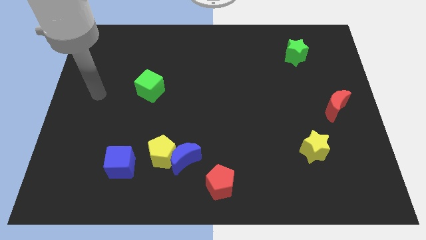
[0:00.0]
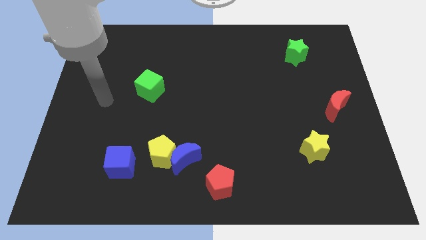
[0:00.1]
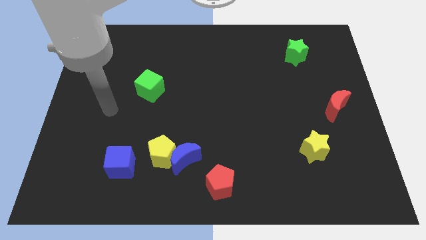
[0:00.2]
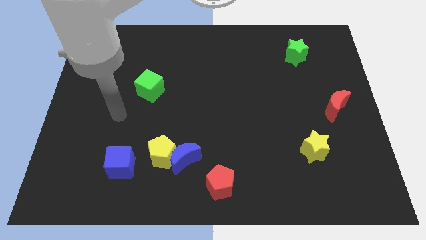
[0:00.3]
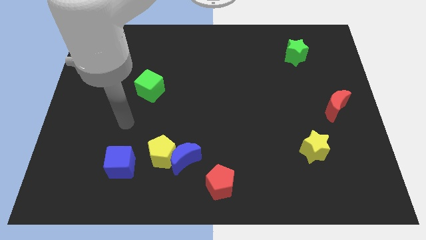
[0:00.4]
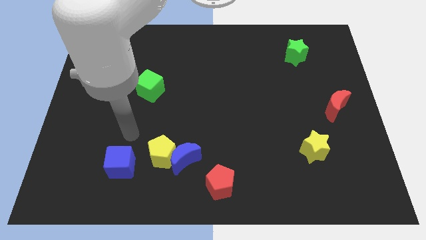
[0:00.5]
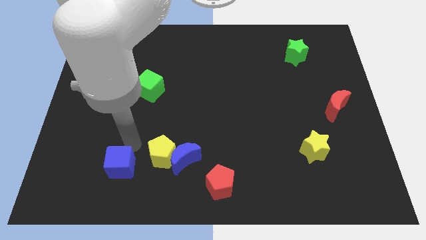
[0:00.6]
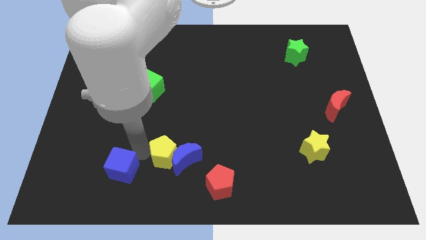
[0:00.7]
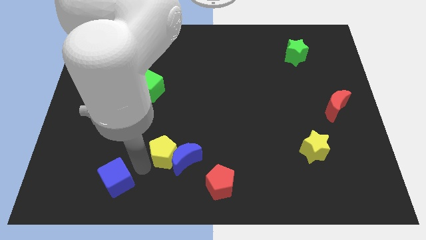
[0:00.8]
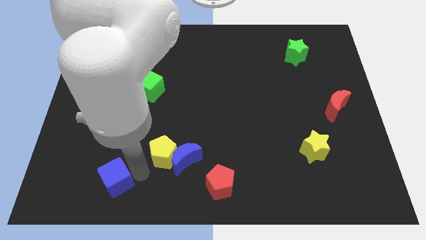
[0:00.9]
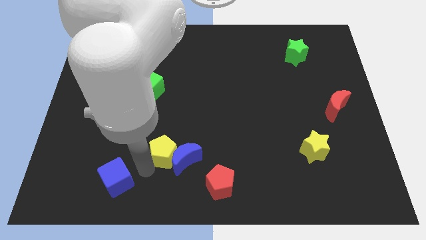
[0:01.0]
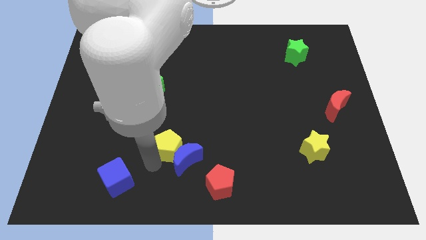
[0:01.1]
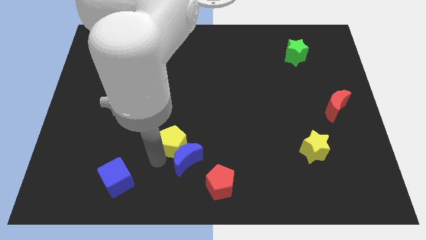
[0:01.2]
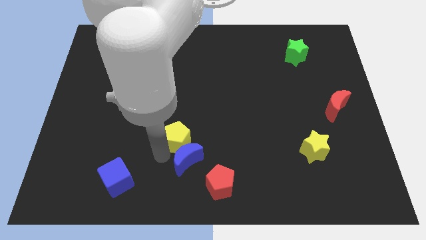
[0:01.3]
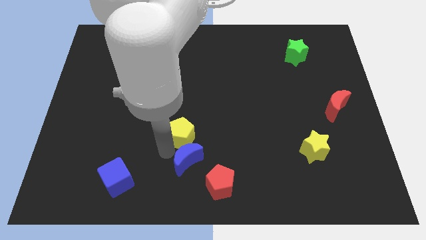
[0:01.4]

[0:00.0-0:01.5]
pull the yellow pentagon apart from the blue moon and blue cube

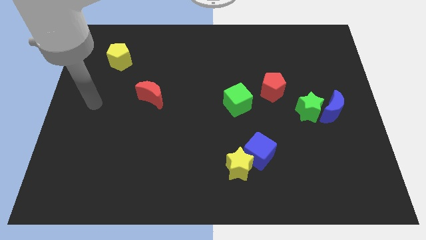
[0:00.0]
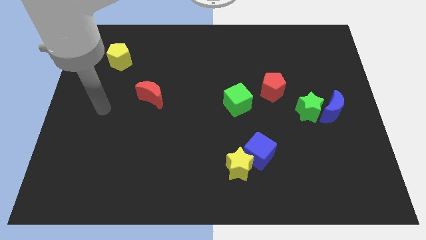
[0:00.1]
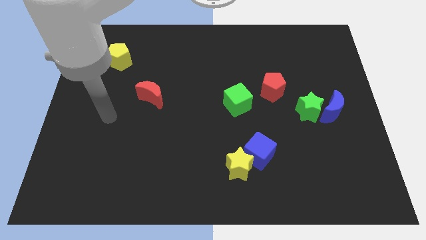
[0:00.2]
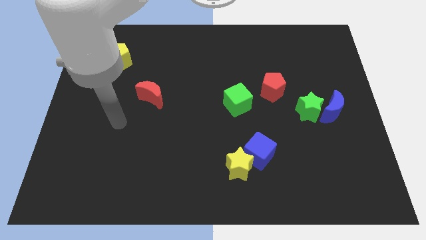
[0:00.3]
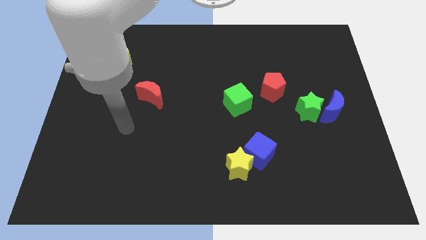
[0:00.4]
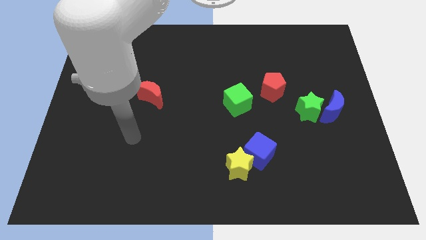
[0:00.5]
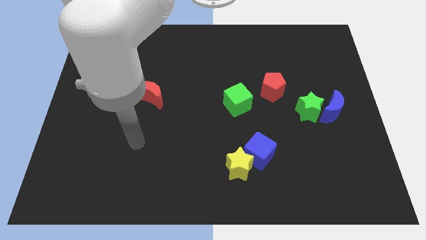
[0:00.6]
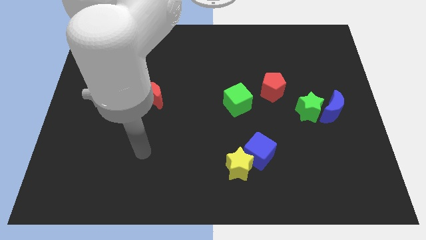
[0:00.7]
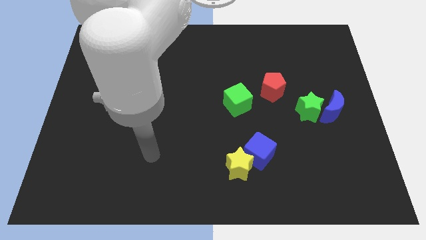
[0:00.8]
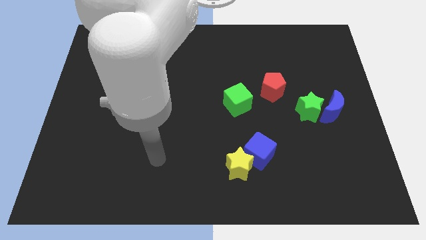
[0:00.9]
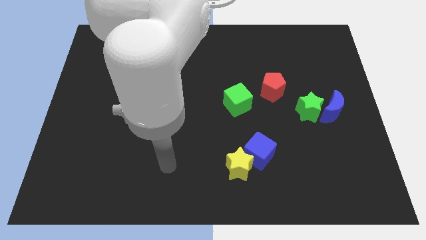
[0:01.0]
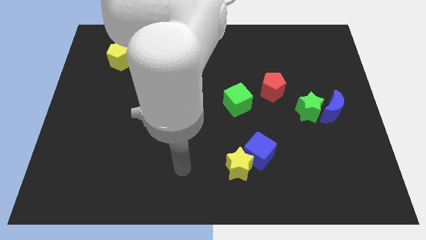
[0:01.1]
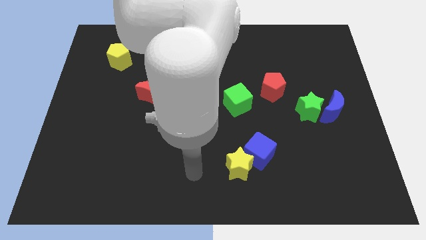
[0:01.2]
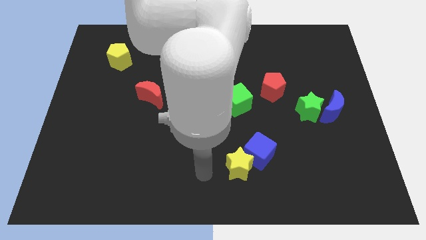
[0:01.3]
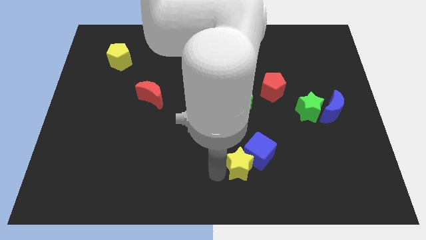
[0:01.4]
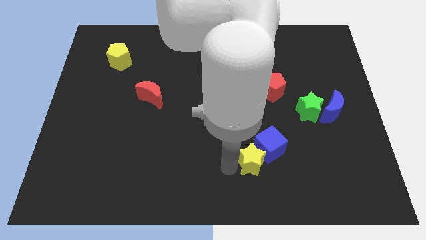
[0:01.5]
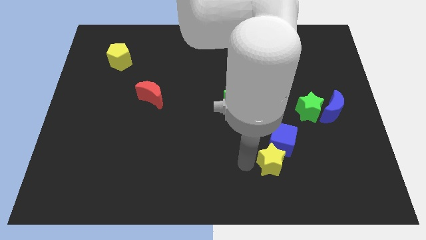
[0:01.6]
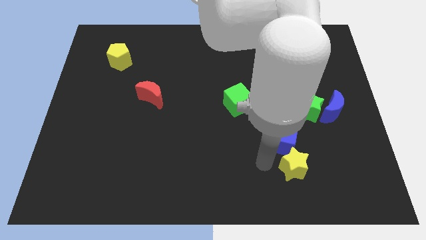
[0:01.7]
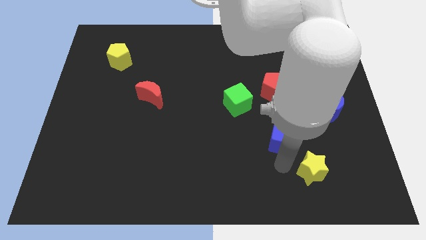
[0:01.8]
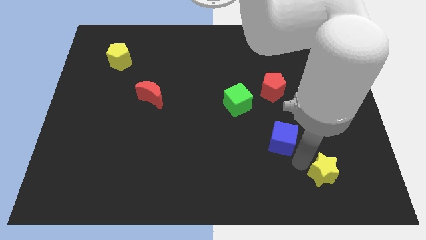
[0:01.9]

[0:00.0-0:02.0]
move the blue cube away from the yellow star

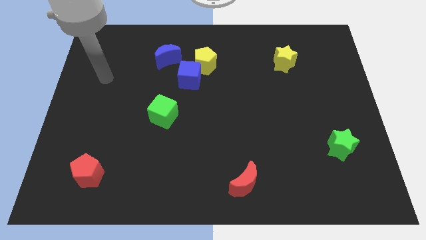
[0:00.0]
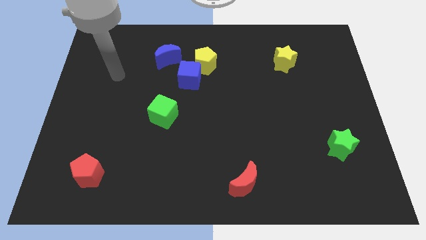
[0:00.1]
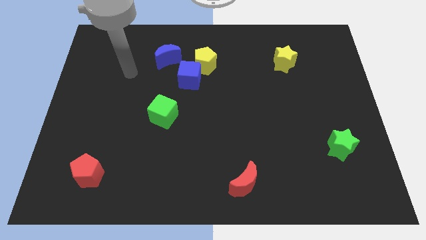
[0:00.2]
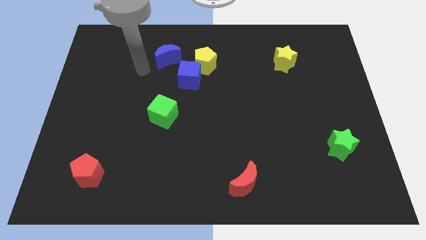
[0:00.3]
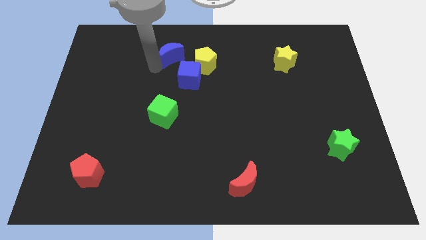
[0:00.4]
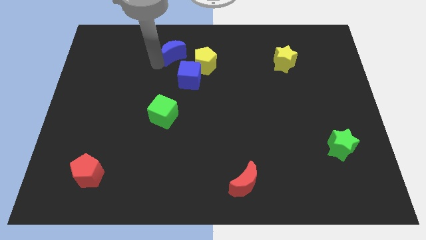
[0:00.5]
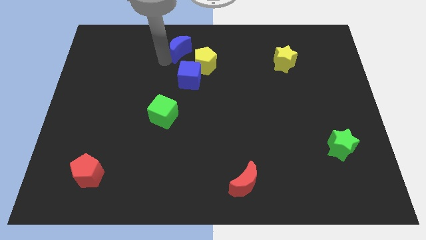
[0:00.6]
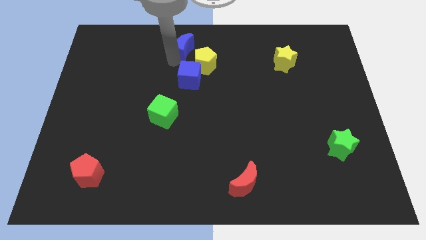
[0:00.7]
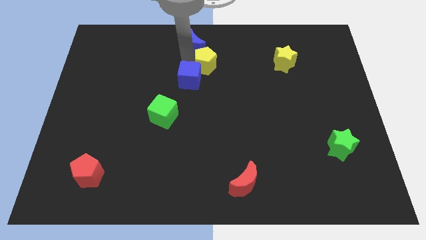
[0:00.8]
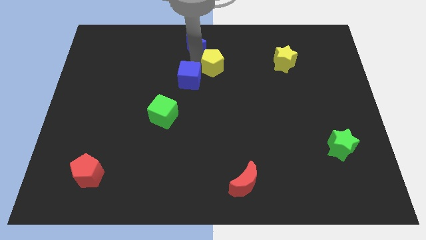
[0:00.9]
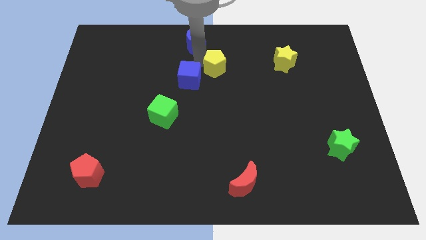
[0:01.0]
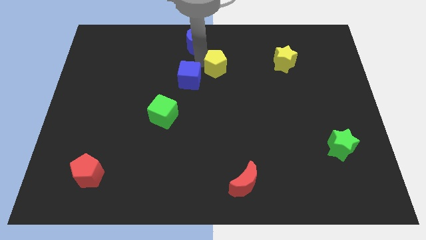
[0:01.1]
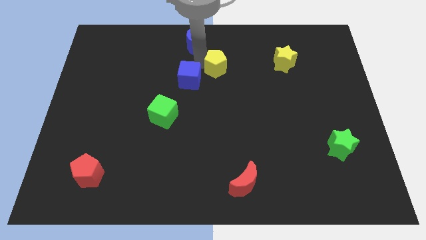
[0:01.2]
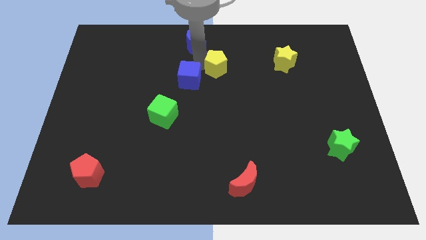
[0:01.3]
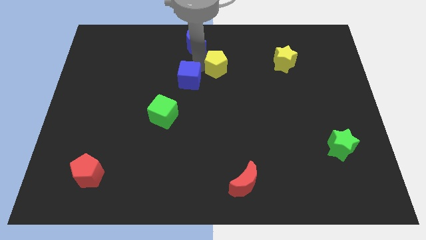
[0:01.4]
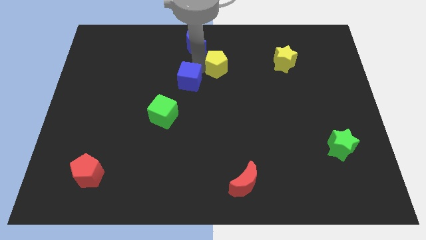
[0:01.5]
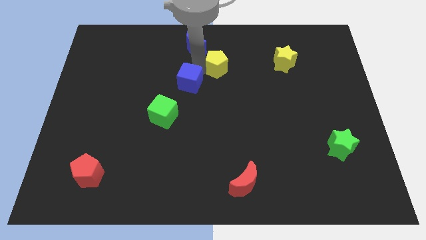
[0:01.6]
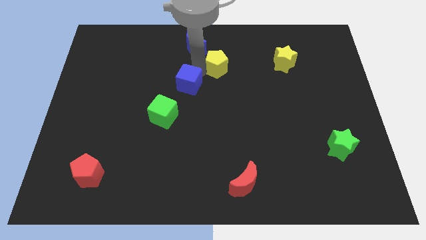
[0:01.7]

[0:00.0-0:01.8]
pull the blue cube apart from the yellow pentagon and blue moon

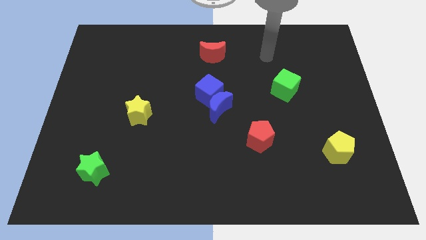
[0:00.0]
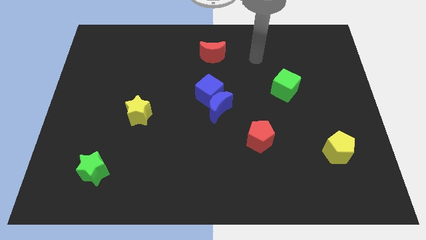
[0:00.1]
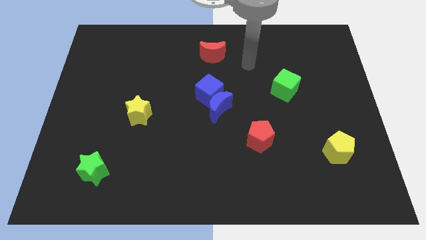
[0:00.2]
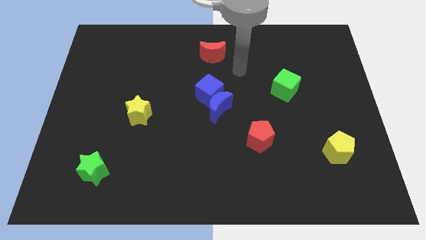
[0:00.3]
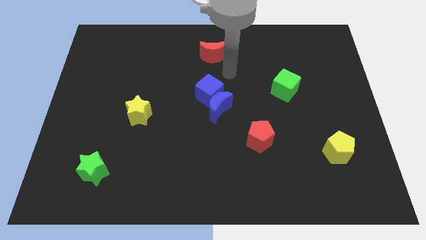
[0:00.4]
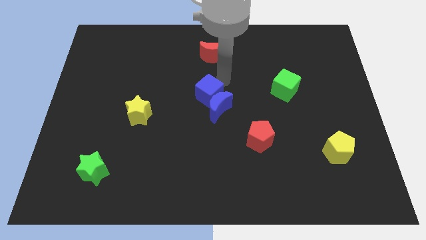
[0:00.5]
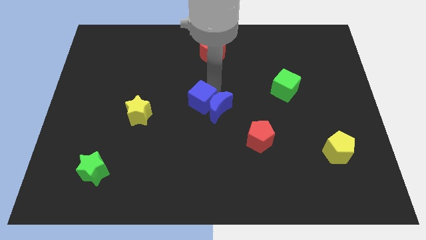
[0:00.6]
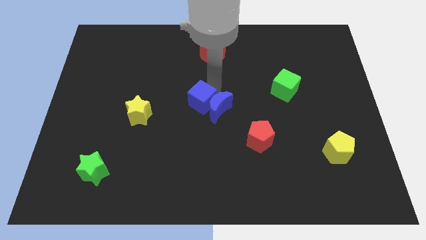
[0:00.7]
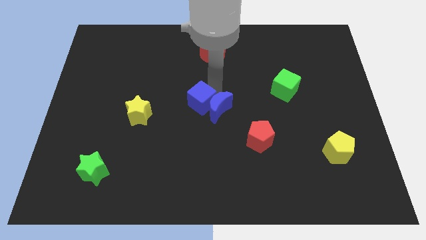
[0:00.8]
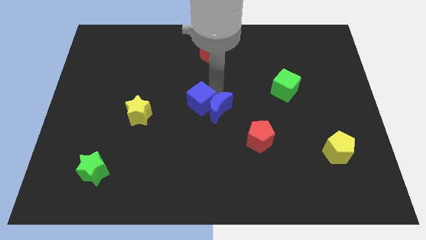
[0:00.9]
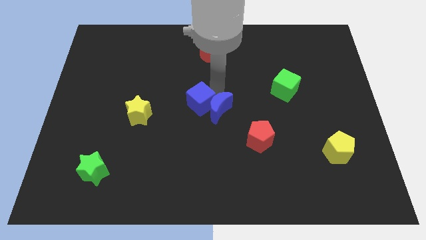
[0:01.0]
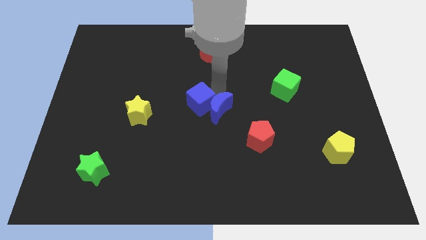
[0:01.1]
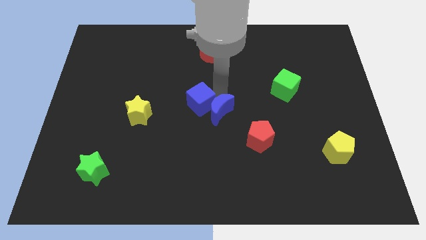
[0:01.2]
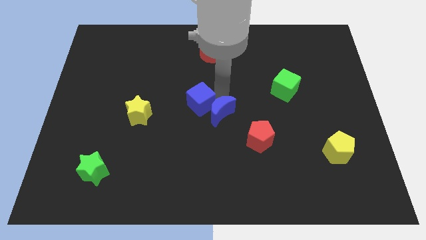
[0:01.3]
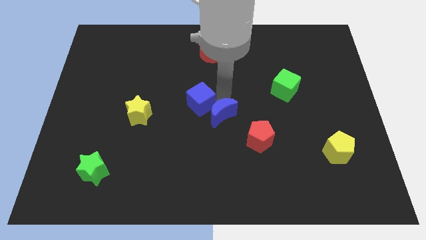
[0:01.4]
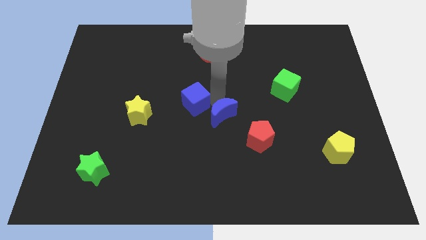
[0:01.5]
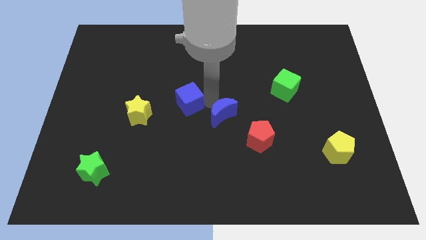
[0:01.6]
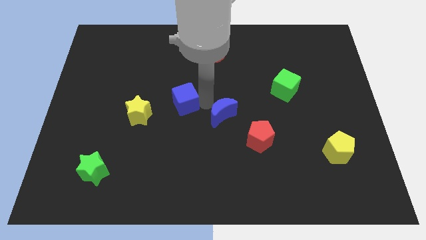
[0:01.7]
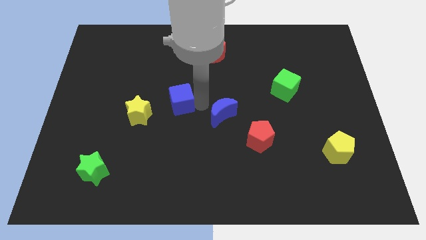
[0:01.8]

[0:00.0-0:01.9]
pull the blue moon apart from the blue cube

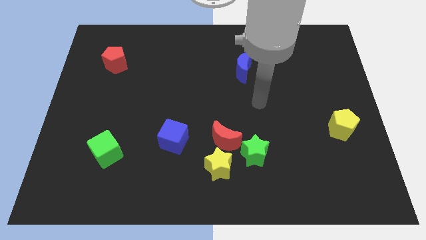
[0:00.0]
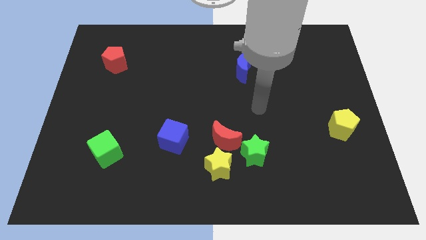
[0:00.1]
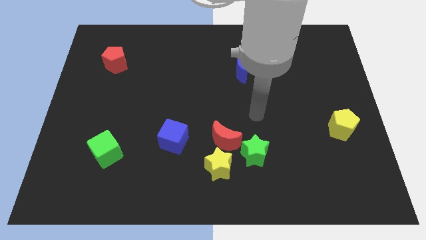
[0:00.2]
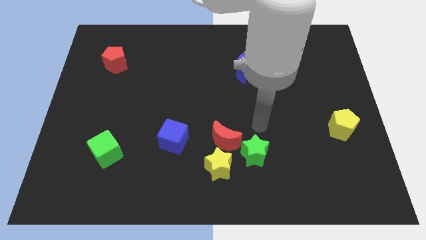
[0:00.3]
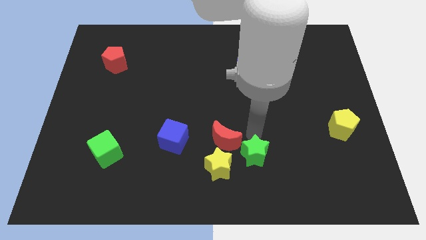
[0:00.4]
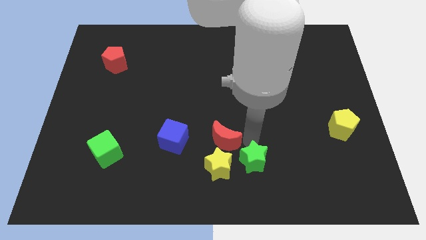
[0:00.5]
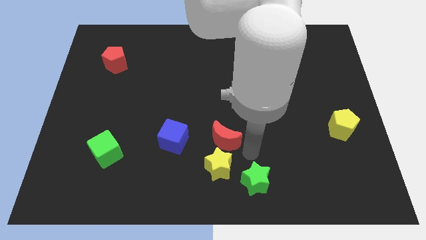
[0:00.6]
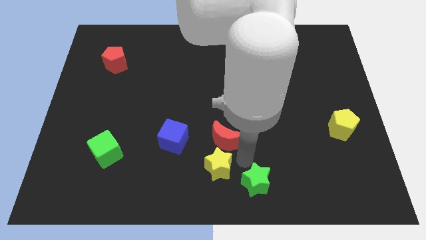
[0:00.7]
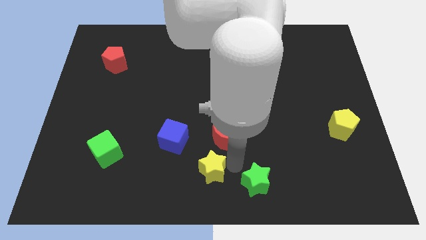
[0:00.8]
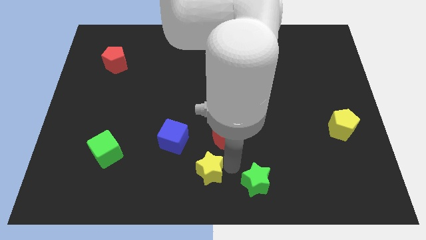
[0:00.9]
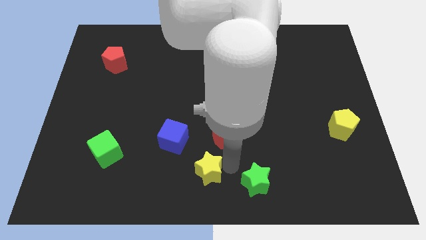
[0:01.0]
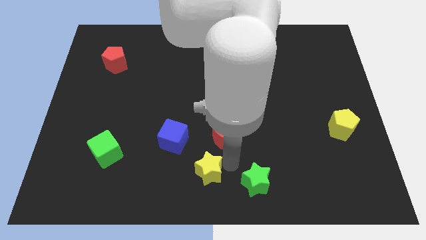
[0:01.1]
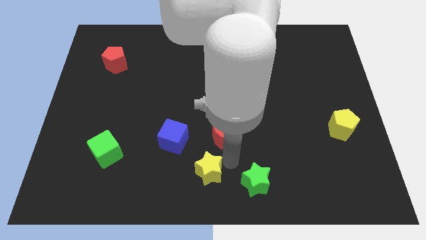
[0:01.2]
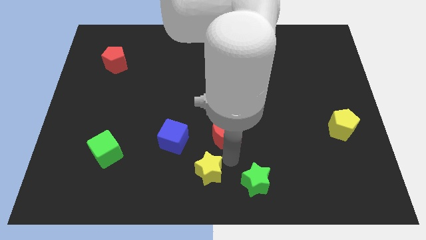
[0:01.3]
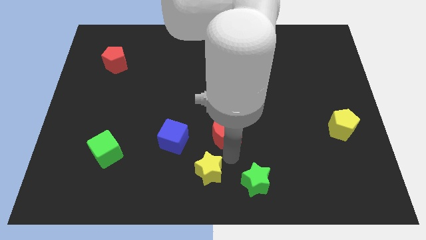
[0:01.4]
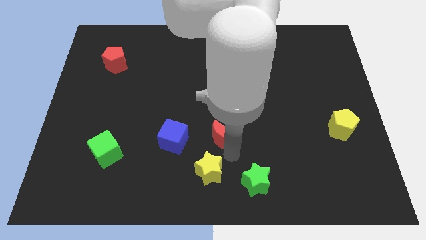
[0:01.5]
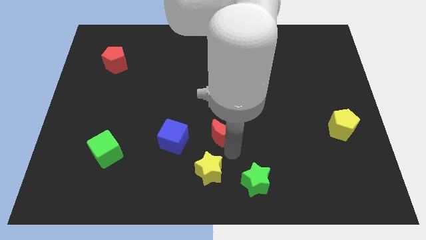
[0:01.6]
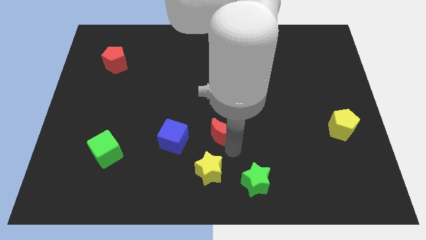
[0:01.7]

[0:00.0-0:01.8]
move the red moon away from the yellow star and green star

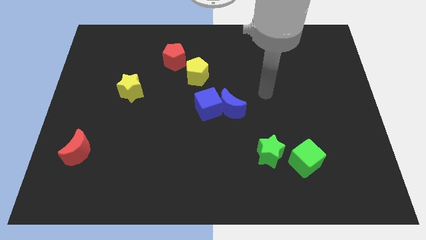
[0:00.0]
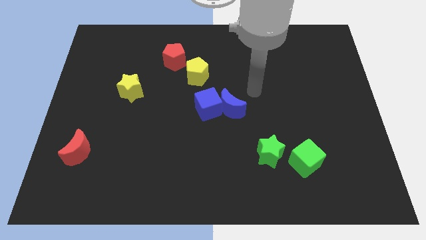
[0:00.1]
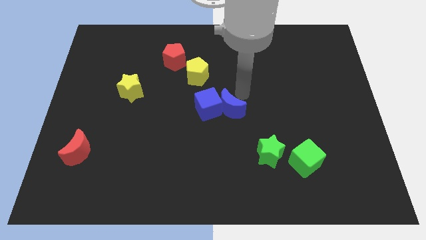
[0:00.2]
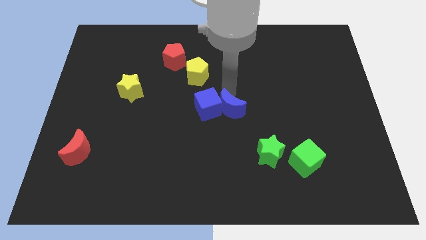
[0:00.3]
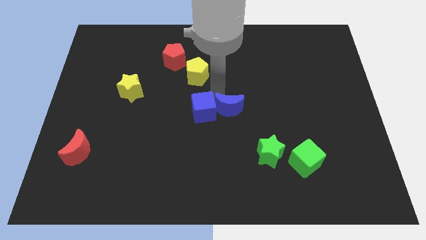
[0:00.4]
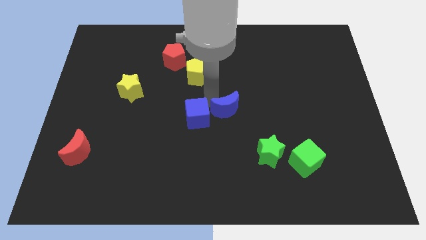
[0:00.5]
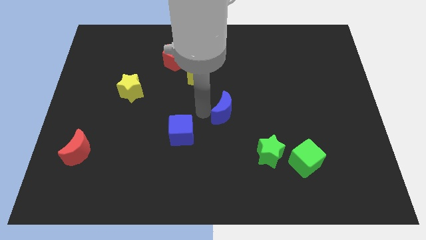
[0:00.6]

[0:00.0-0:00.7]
separate the blue moon from the blue cube
